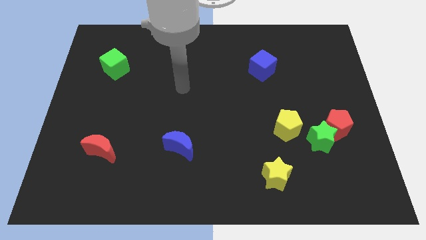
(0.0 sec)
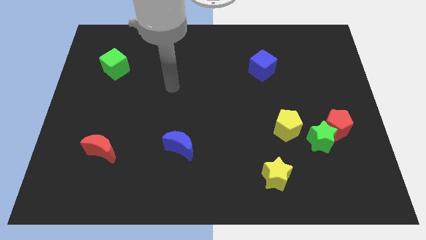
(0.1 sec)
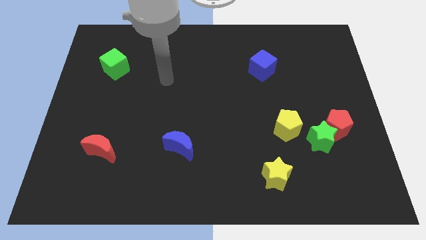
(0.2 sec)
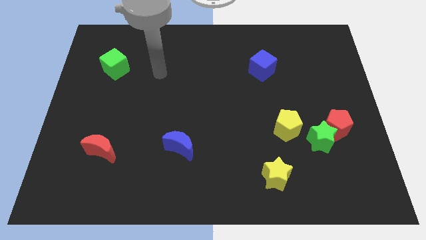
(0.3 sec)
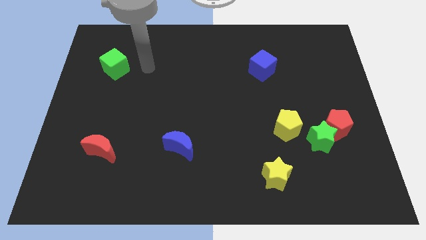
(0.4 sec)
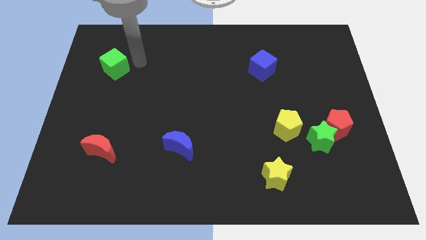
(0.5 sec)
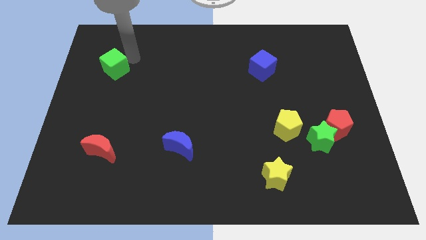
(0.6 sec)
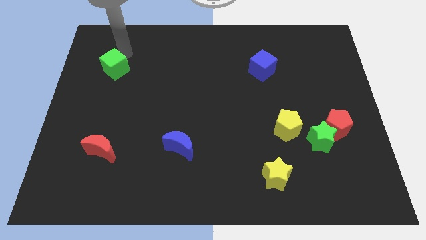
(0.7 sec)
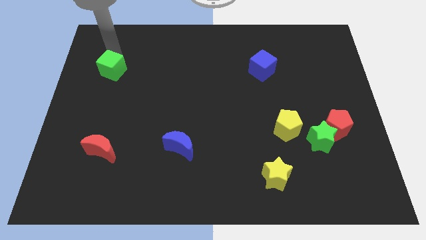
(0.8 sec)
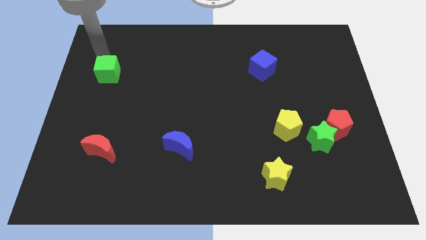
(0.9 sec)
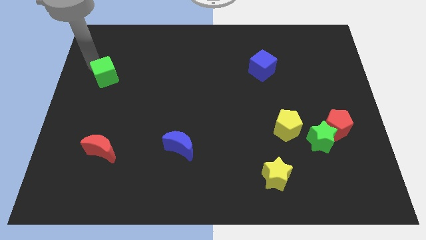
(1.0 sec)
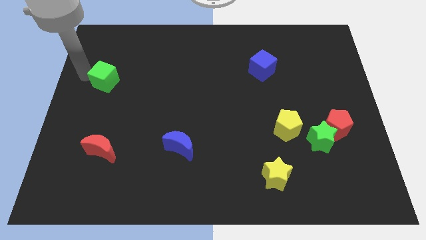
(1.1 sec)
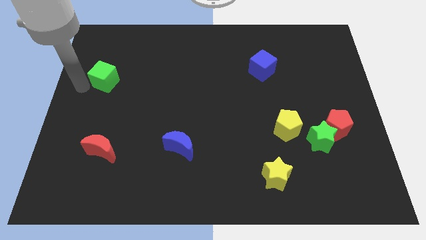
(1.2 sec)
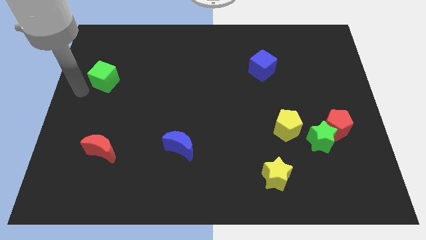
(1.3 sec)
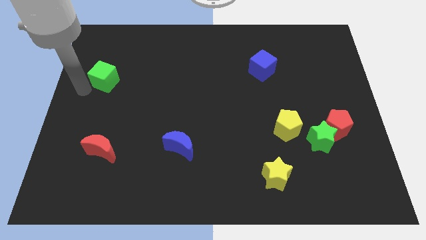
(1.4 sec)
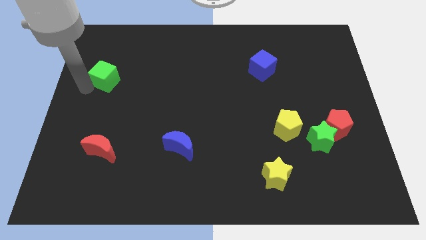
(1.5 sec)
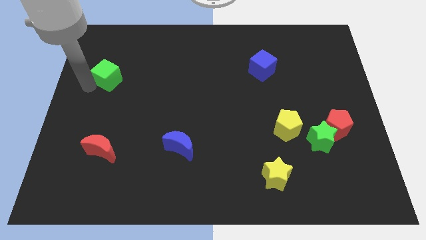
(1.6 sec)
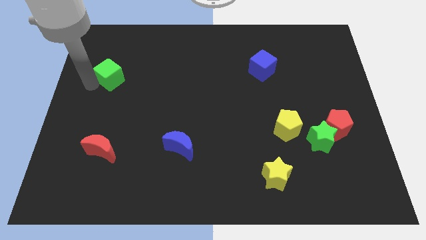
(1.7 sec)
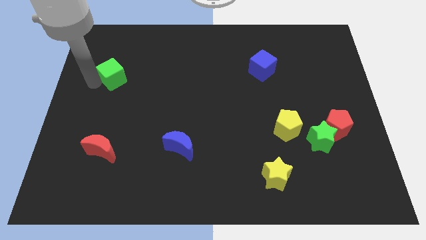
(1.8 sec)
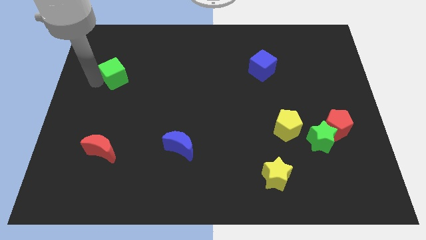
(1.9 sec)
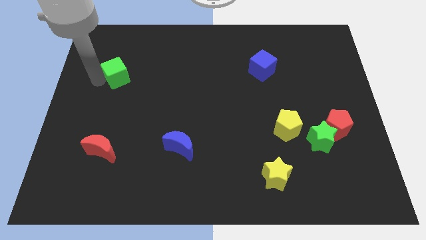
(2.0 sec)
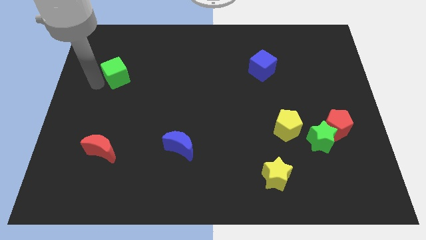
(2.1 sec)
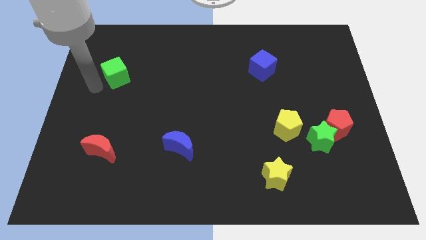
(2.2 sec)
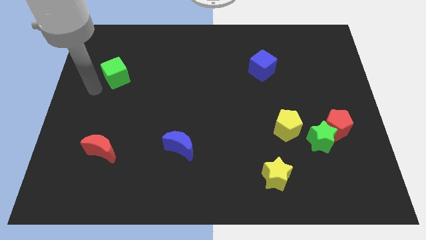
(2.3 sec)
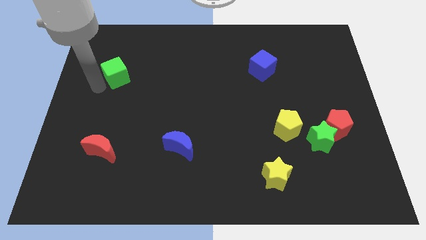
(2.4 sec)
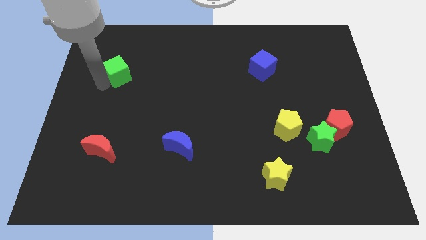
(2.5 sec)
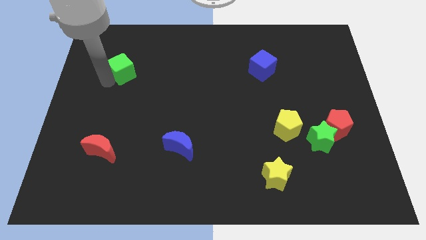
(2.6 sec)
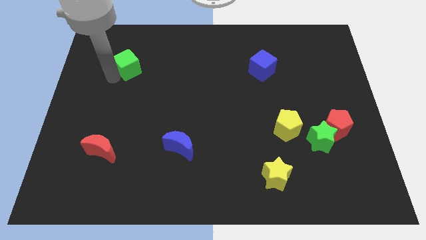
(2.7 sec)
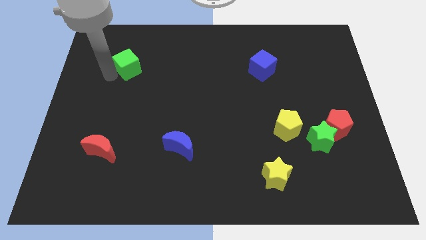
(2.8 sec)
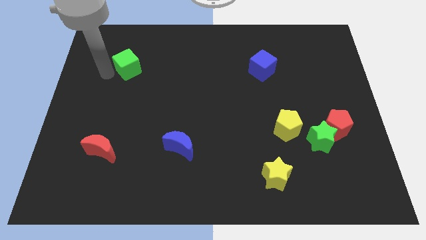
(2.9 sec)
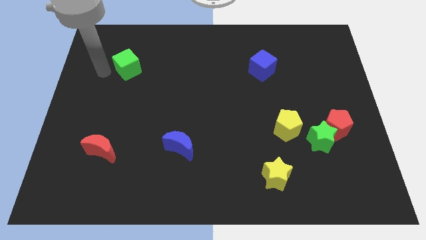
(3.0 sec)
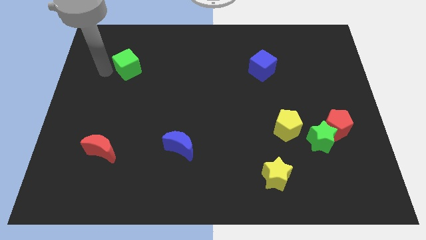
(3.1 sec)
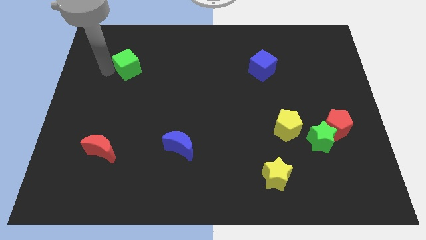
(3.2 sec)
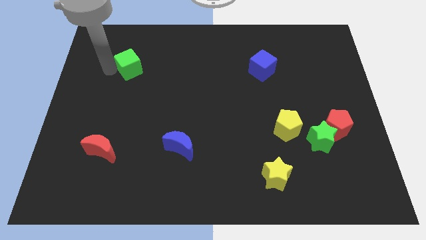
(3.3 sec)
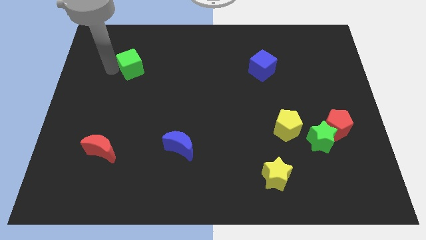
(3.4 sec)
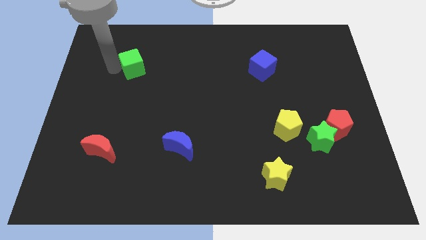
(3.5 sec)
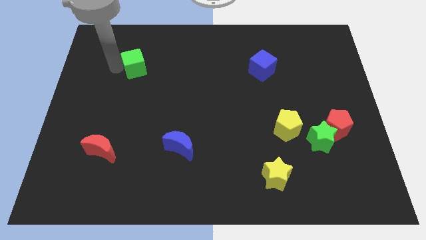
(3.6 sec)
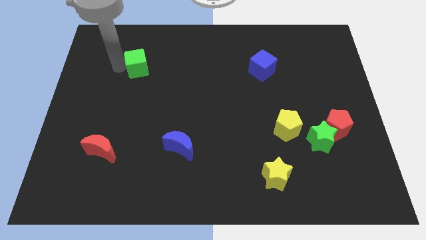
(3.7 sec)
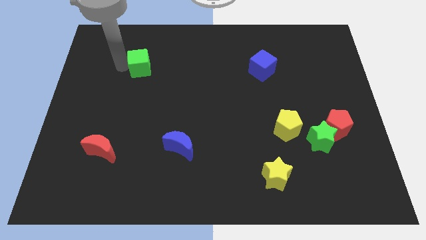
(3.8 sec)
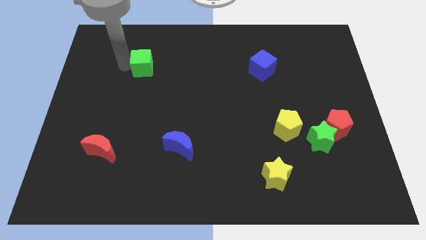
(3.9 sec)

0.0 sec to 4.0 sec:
slightly move the green cube to the right

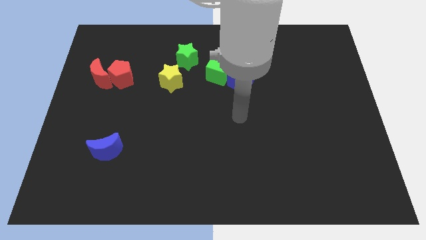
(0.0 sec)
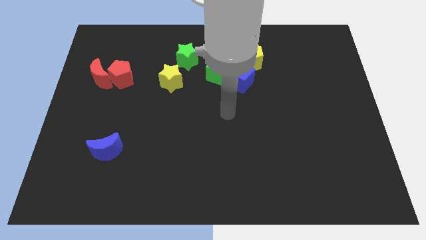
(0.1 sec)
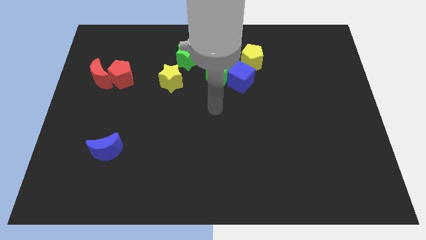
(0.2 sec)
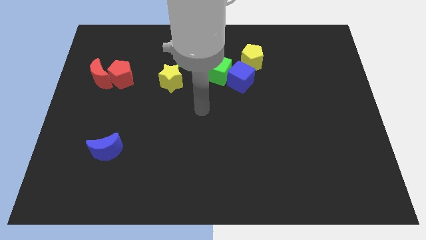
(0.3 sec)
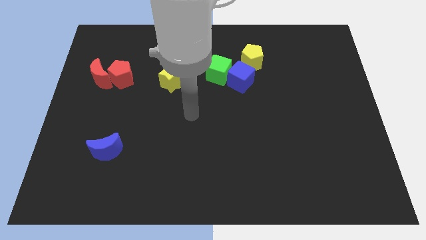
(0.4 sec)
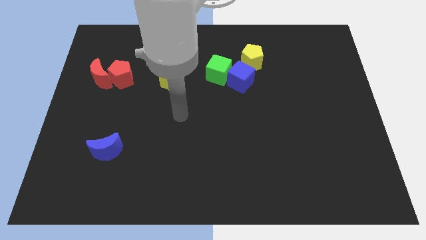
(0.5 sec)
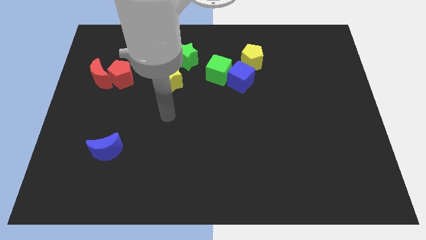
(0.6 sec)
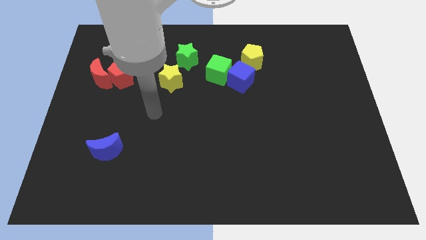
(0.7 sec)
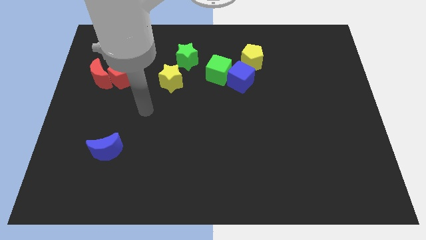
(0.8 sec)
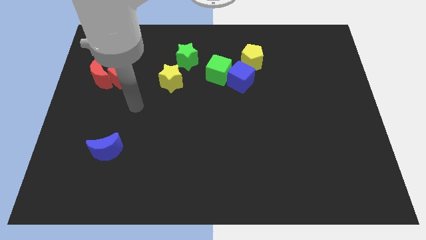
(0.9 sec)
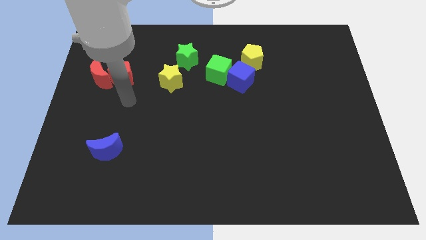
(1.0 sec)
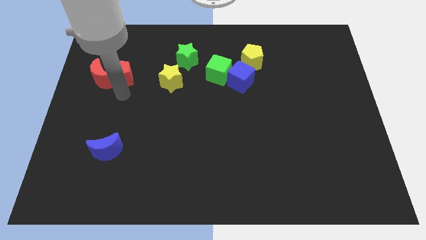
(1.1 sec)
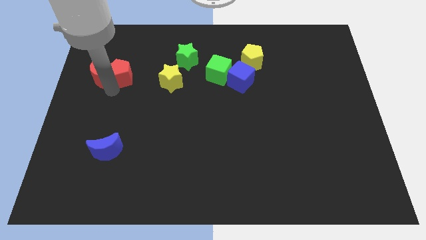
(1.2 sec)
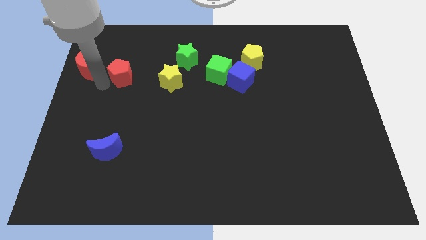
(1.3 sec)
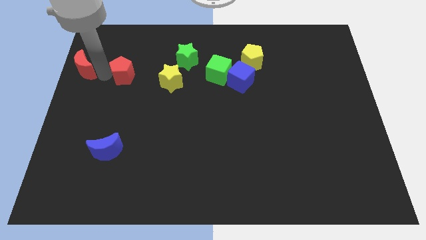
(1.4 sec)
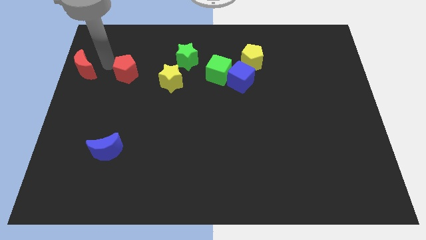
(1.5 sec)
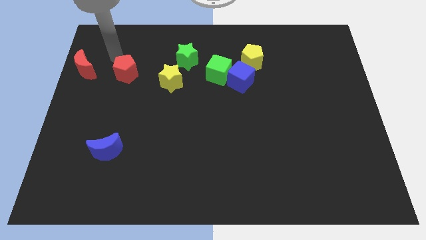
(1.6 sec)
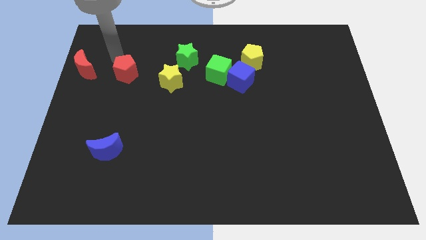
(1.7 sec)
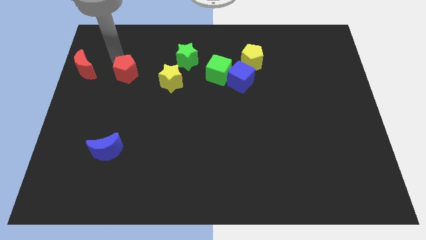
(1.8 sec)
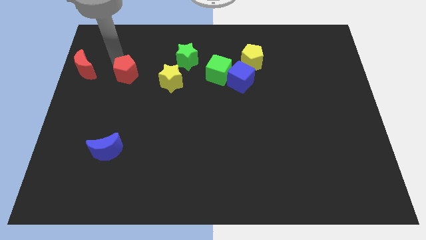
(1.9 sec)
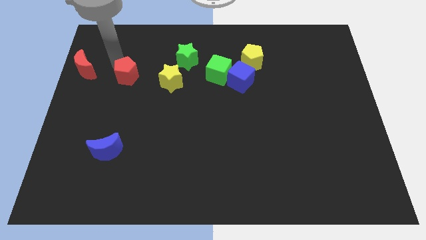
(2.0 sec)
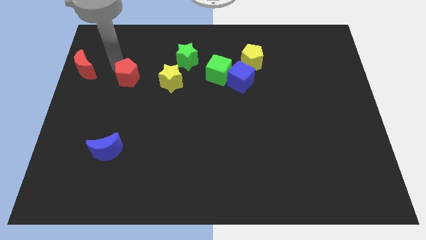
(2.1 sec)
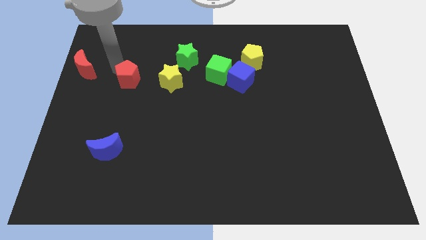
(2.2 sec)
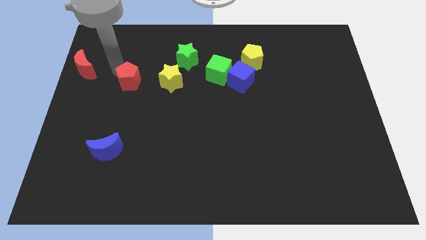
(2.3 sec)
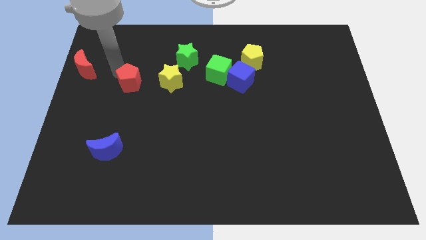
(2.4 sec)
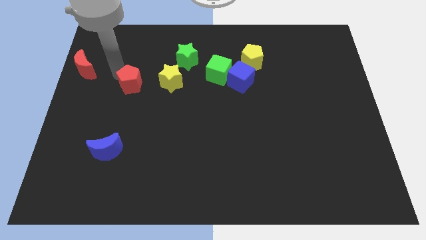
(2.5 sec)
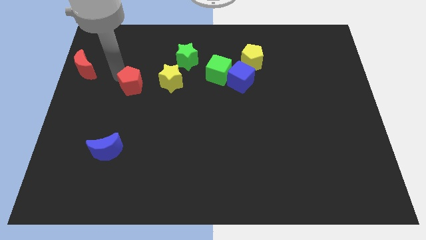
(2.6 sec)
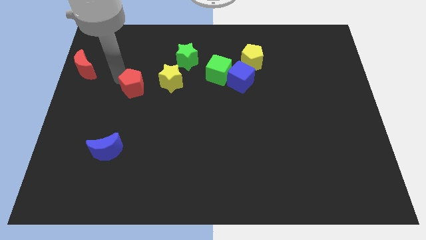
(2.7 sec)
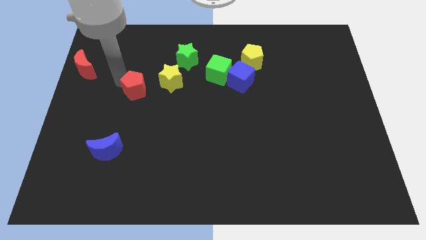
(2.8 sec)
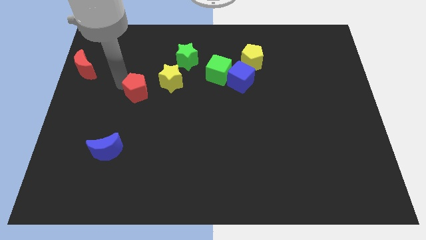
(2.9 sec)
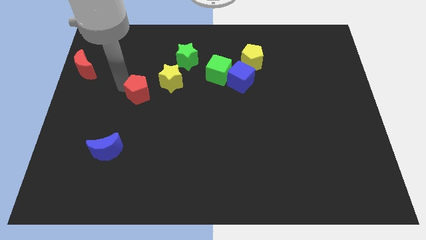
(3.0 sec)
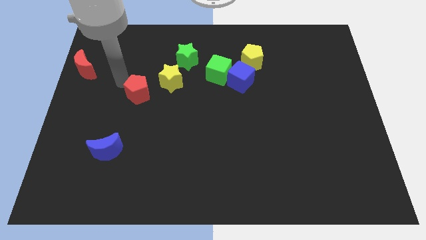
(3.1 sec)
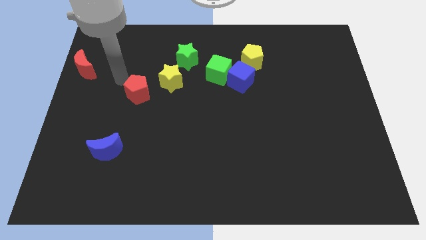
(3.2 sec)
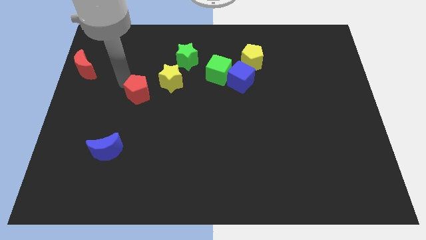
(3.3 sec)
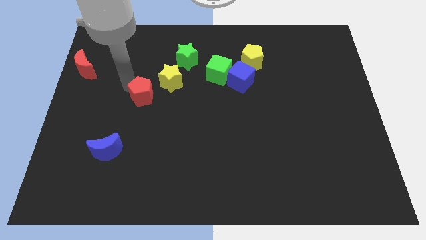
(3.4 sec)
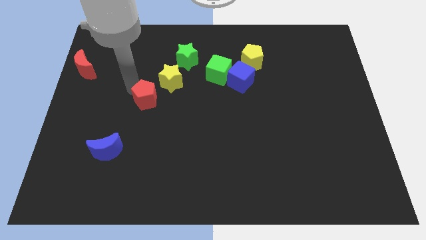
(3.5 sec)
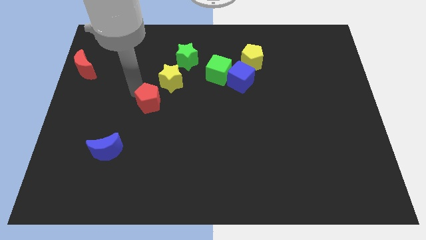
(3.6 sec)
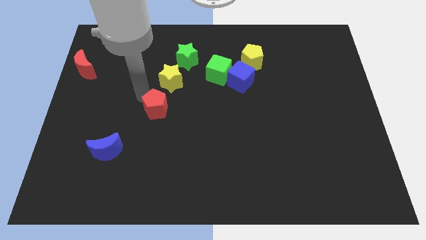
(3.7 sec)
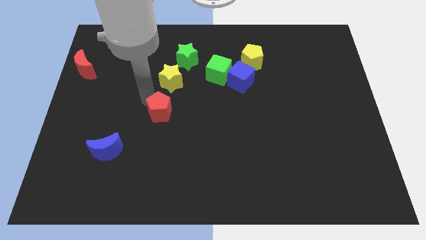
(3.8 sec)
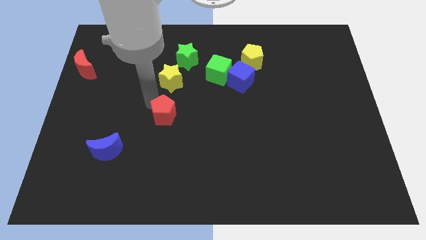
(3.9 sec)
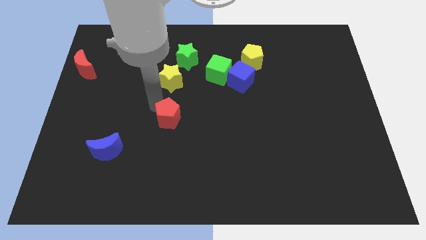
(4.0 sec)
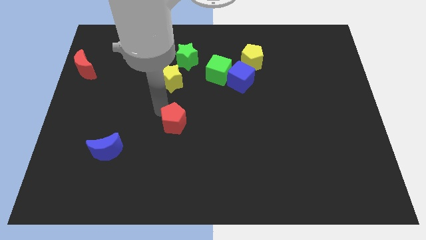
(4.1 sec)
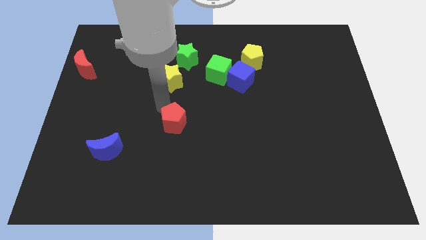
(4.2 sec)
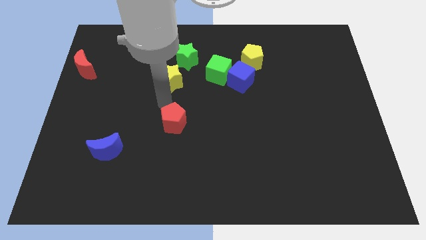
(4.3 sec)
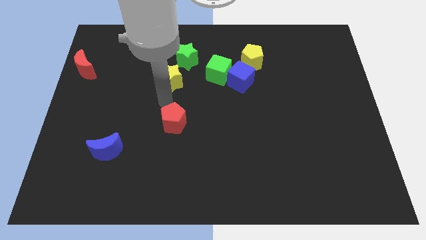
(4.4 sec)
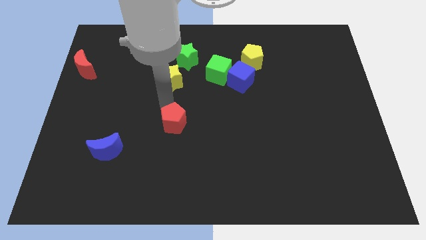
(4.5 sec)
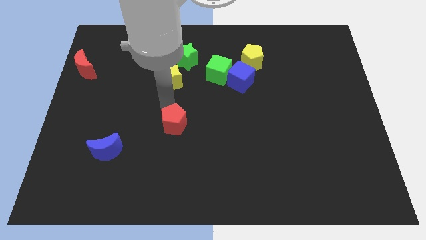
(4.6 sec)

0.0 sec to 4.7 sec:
push the red pentagon down and to the right
